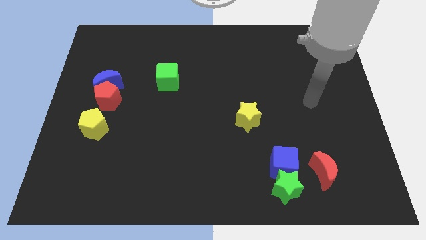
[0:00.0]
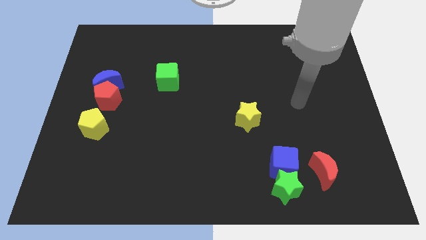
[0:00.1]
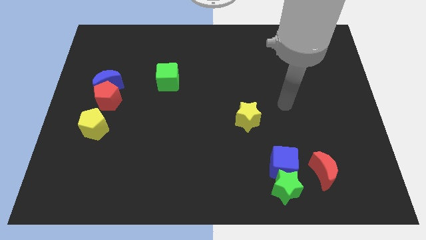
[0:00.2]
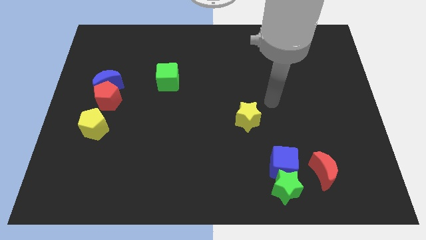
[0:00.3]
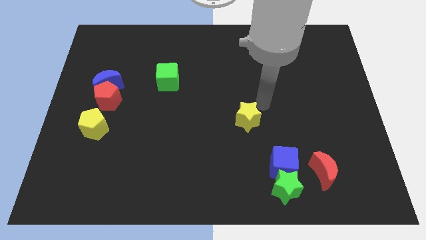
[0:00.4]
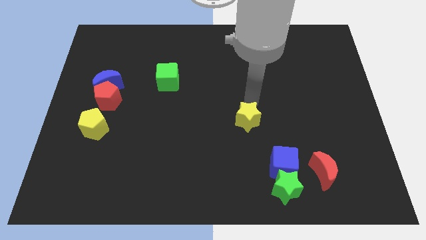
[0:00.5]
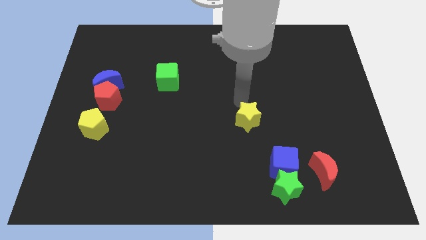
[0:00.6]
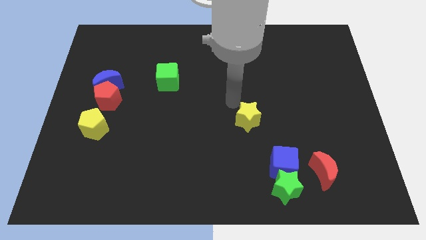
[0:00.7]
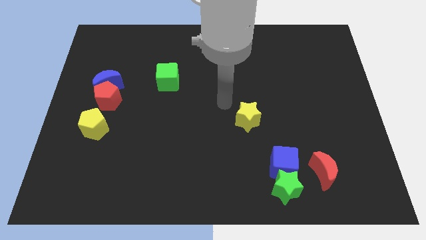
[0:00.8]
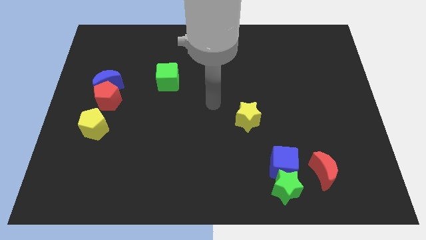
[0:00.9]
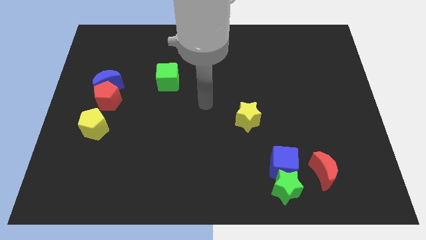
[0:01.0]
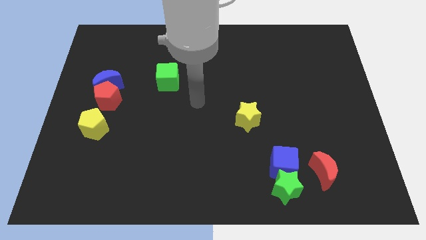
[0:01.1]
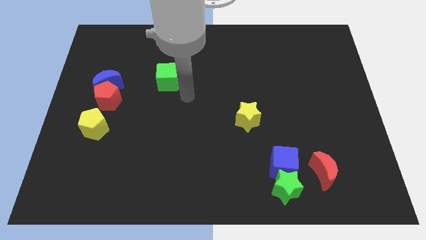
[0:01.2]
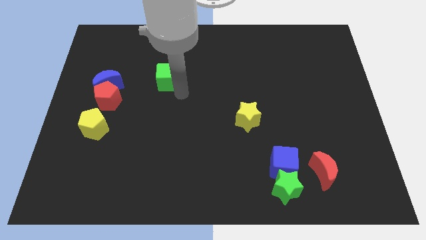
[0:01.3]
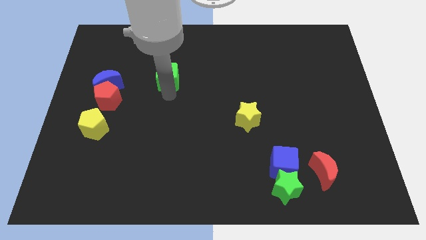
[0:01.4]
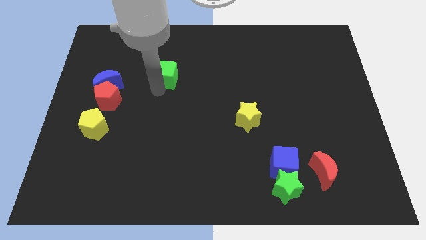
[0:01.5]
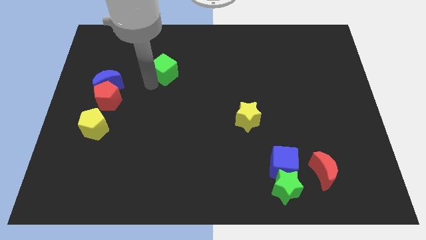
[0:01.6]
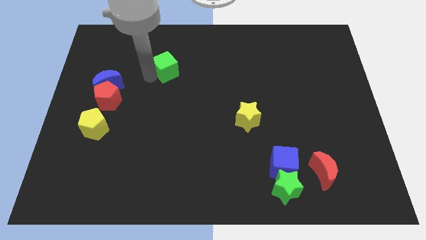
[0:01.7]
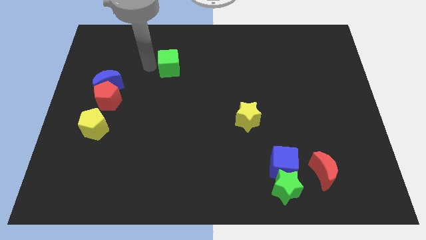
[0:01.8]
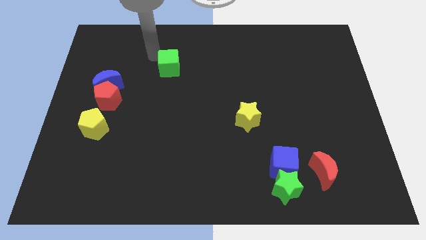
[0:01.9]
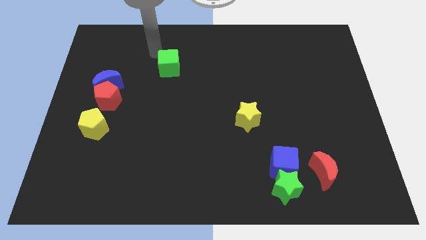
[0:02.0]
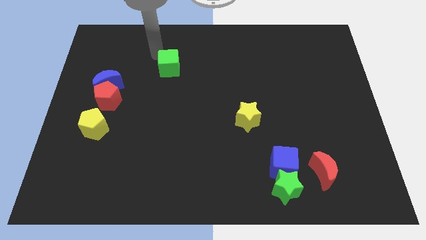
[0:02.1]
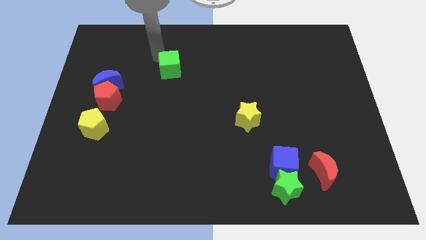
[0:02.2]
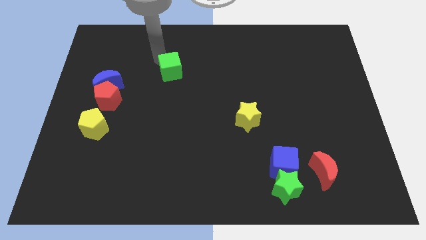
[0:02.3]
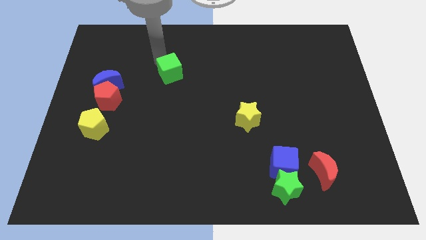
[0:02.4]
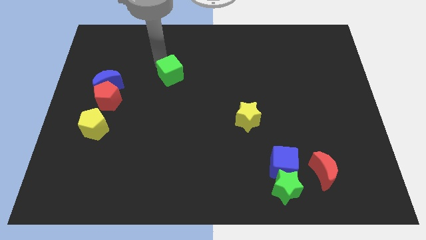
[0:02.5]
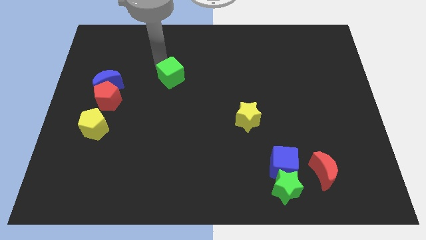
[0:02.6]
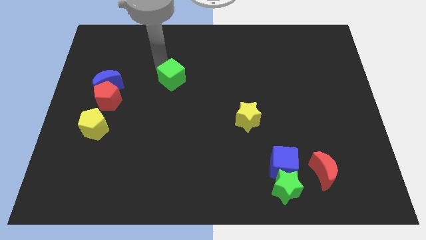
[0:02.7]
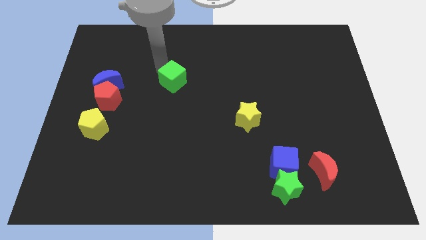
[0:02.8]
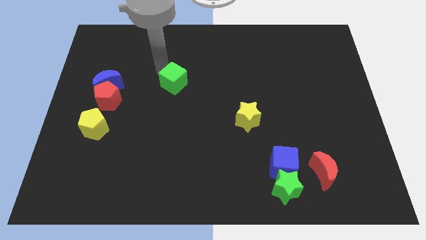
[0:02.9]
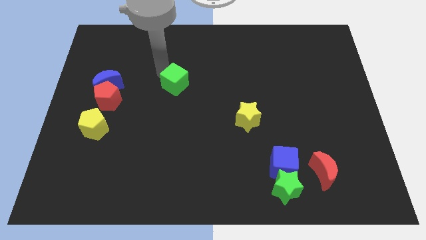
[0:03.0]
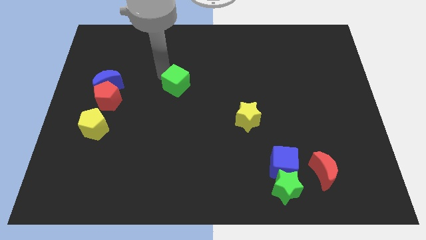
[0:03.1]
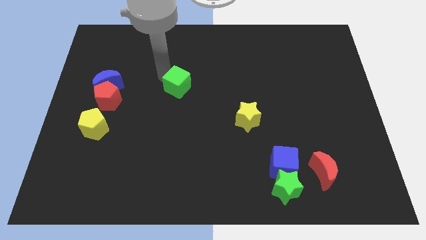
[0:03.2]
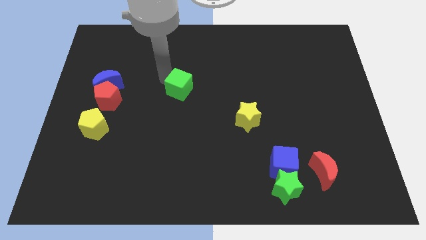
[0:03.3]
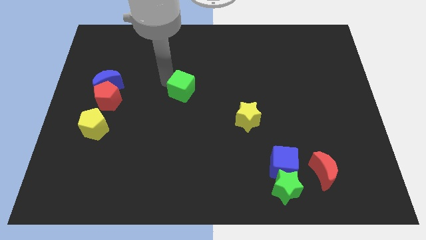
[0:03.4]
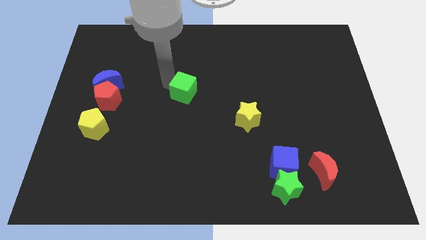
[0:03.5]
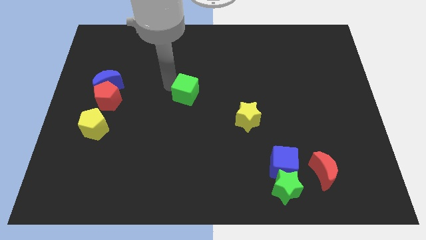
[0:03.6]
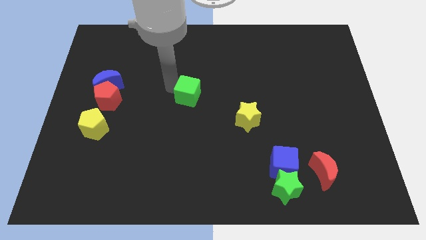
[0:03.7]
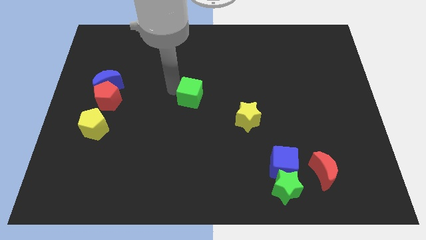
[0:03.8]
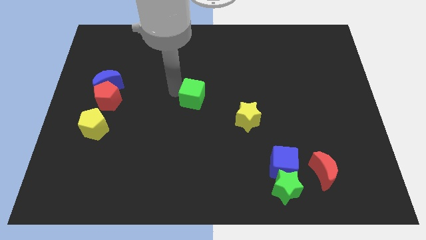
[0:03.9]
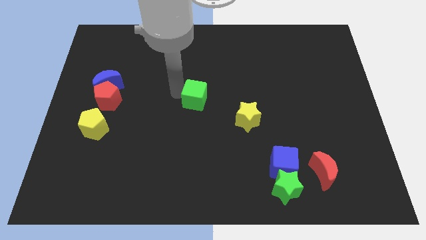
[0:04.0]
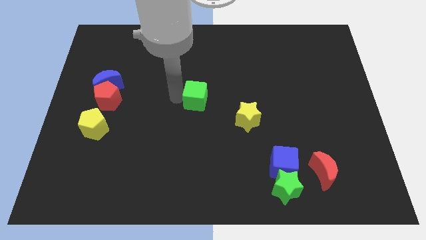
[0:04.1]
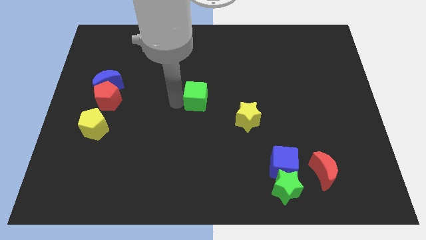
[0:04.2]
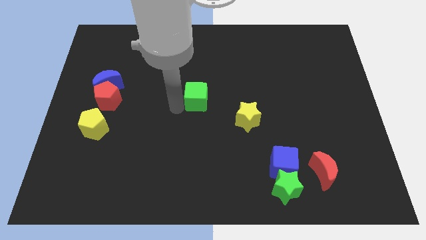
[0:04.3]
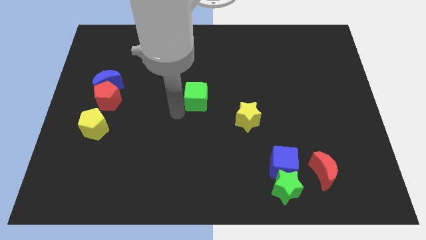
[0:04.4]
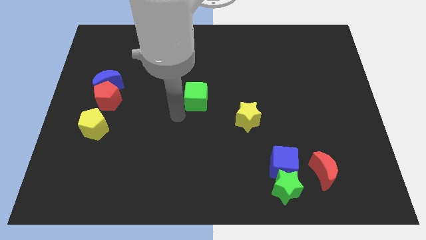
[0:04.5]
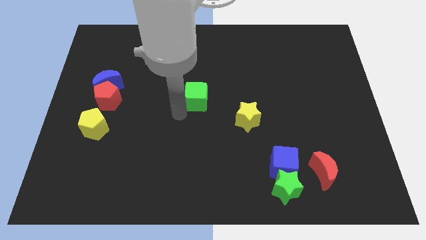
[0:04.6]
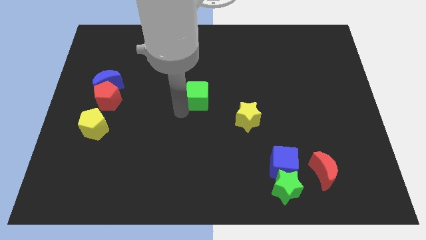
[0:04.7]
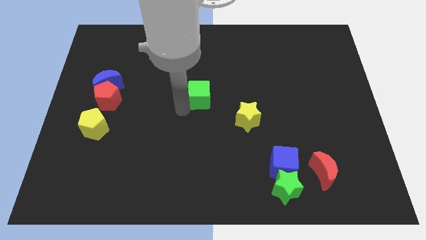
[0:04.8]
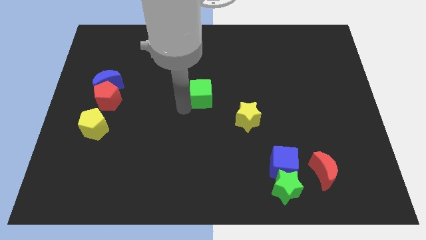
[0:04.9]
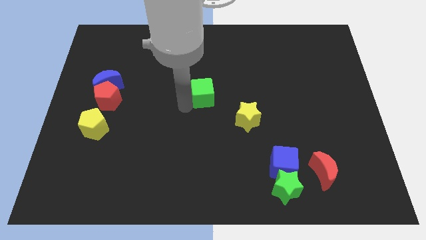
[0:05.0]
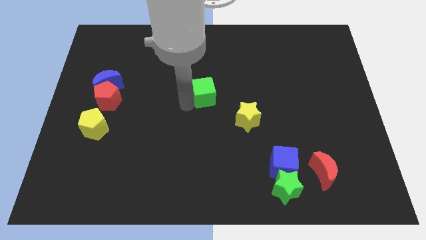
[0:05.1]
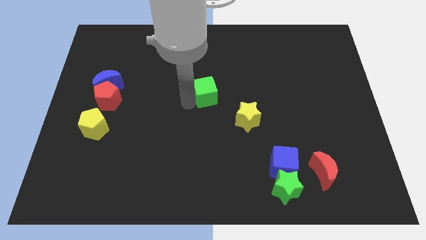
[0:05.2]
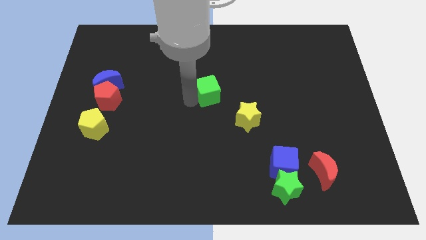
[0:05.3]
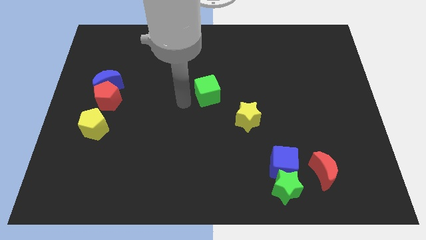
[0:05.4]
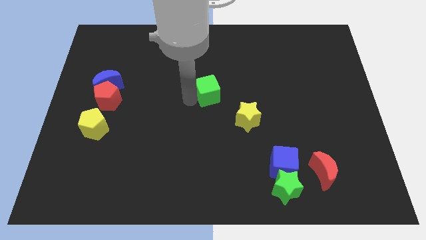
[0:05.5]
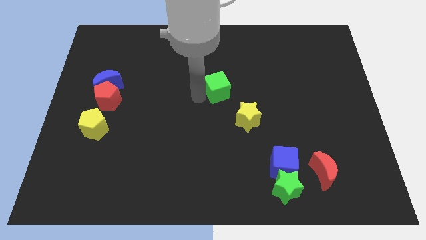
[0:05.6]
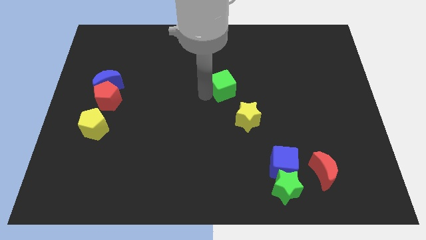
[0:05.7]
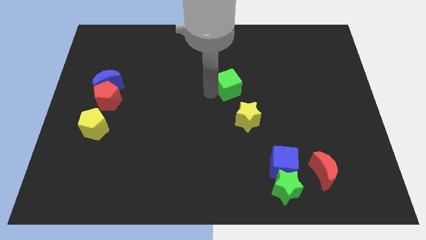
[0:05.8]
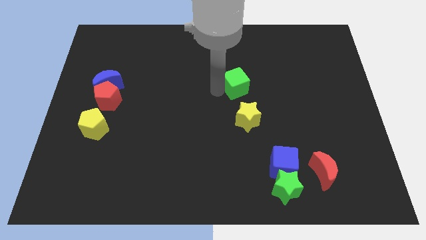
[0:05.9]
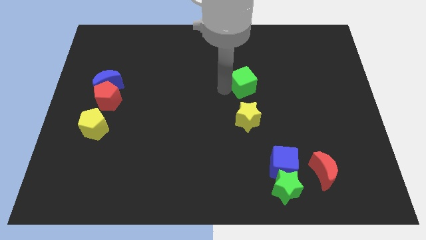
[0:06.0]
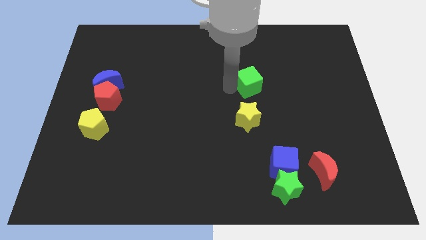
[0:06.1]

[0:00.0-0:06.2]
move the green cube right

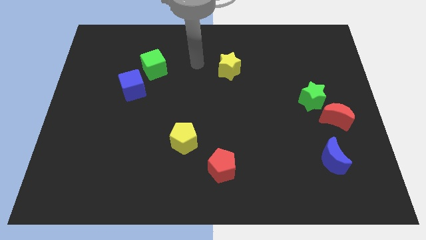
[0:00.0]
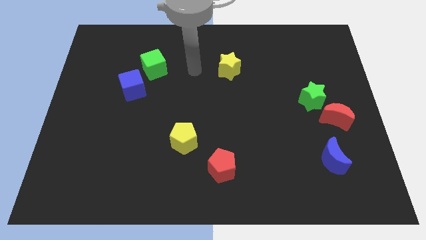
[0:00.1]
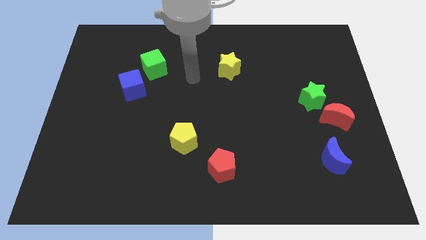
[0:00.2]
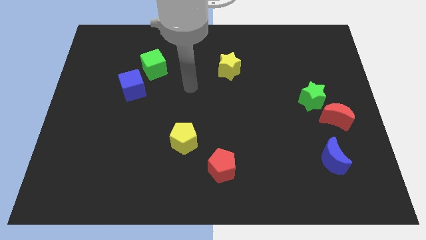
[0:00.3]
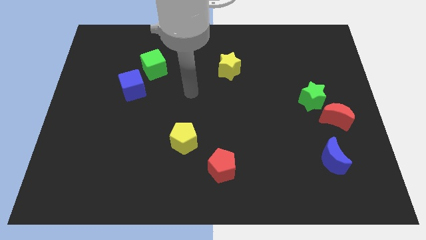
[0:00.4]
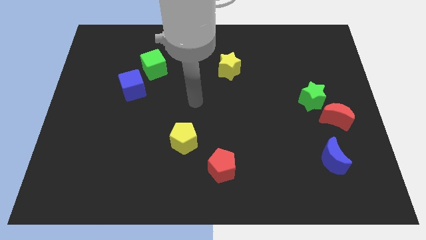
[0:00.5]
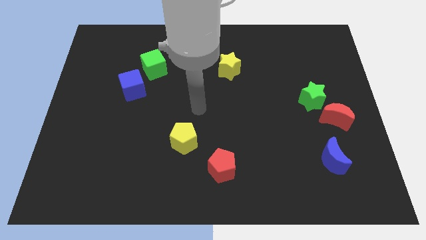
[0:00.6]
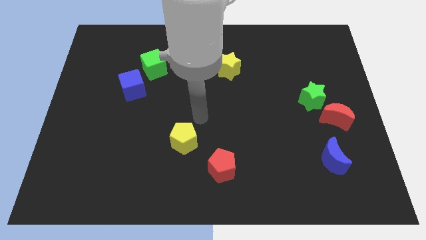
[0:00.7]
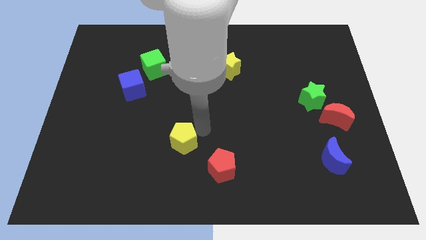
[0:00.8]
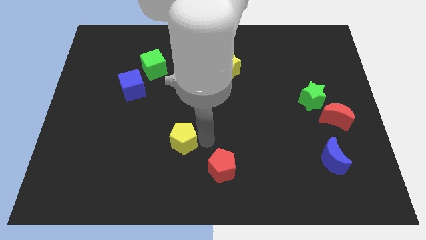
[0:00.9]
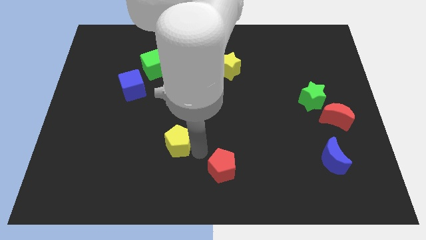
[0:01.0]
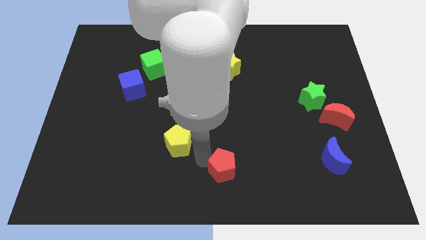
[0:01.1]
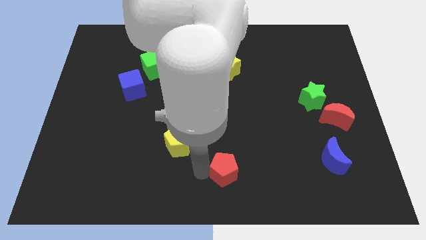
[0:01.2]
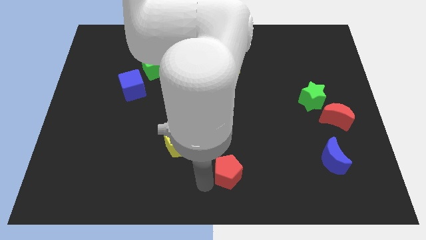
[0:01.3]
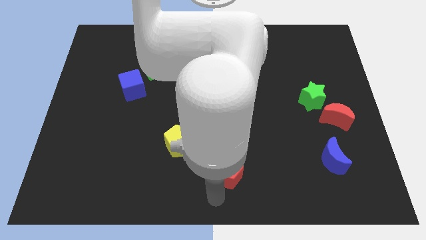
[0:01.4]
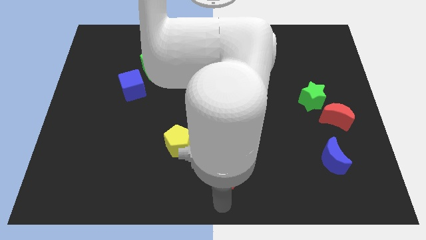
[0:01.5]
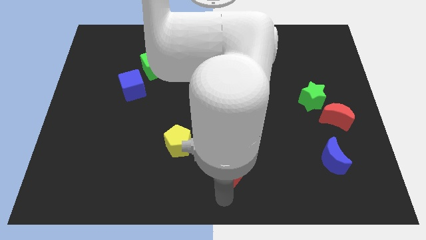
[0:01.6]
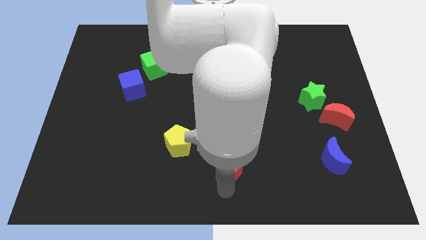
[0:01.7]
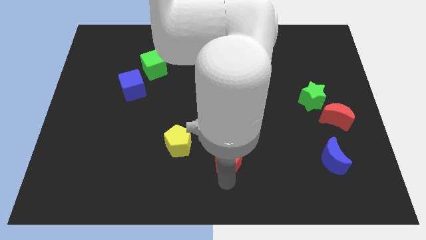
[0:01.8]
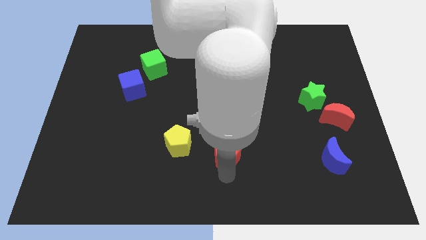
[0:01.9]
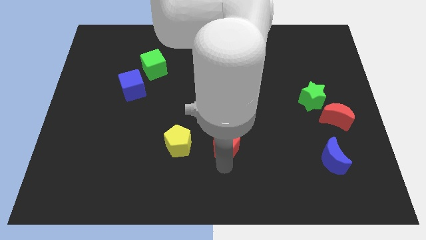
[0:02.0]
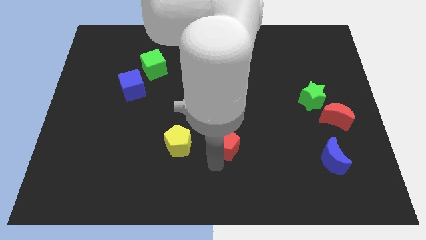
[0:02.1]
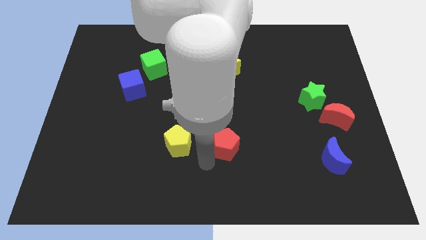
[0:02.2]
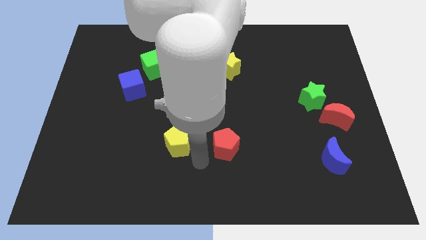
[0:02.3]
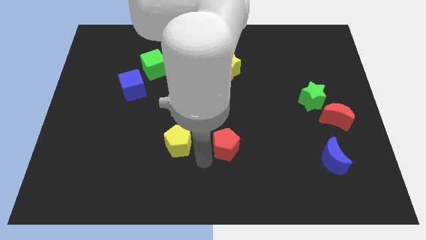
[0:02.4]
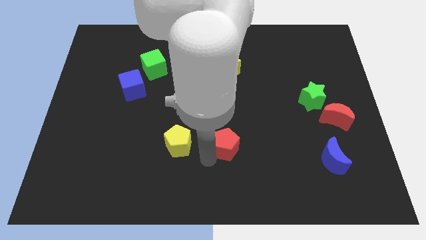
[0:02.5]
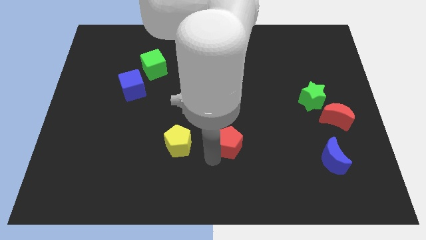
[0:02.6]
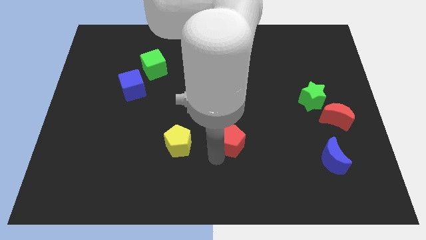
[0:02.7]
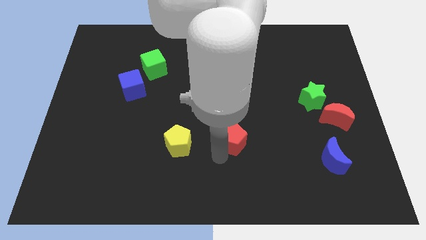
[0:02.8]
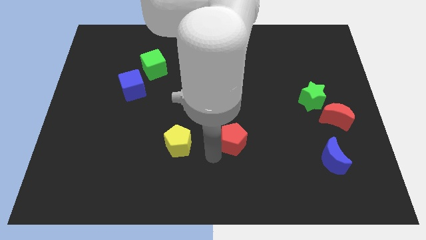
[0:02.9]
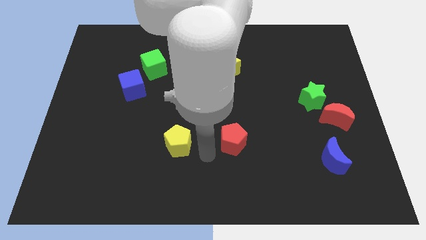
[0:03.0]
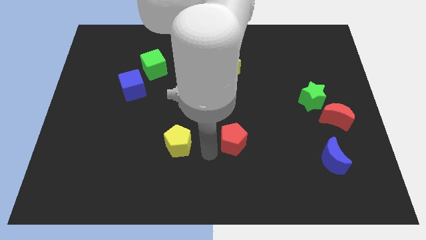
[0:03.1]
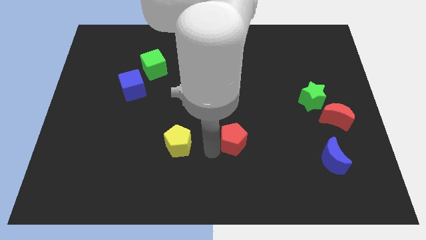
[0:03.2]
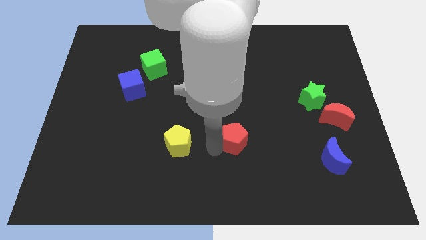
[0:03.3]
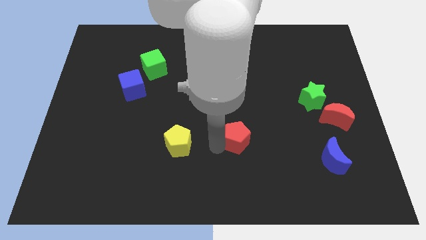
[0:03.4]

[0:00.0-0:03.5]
slide the red pentagon somewhat up and to the right diagonally
